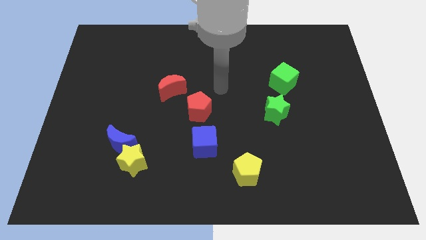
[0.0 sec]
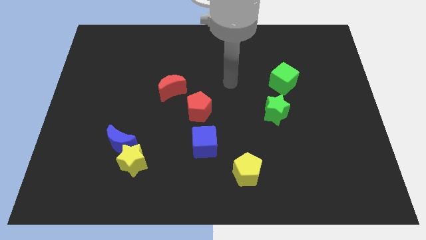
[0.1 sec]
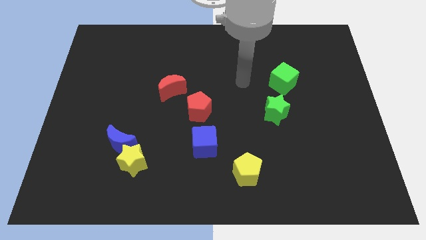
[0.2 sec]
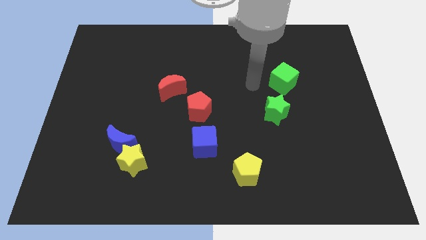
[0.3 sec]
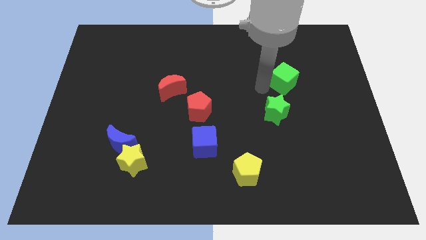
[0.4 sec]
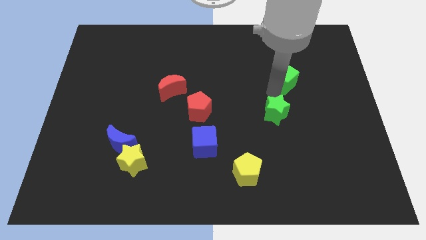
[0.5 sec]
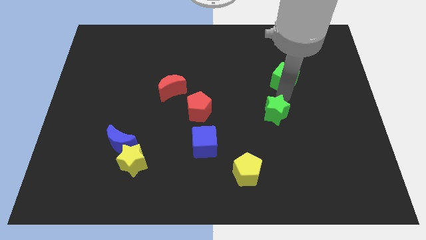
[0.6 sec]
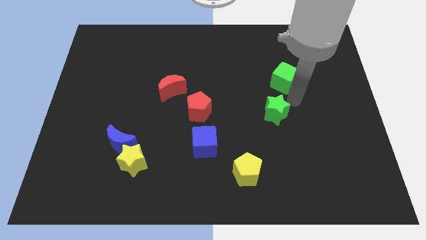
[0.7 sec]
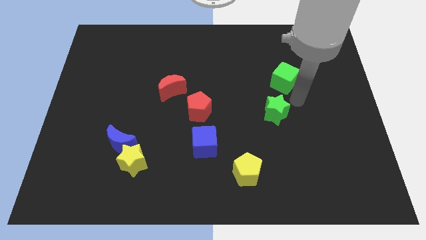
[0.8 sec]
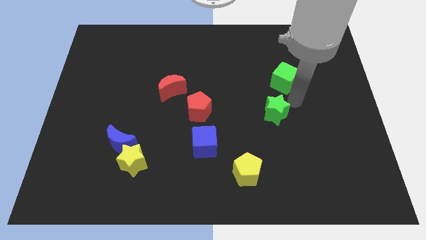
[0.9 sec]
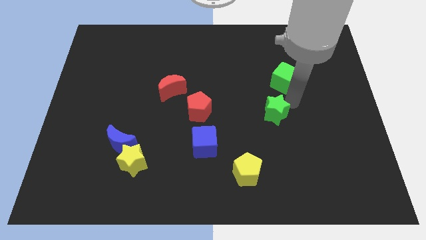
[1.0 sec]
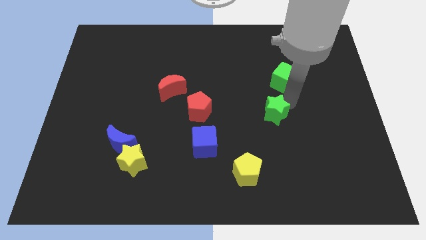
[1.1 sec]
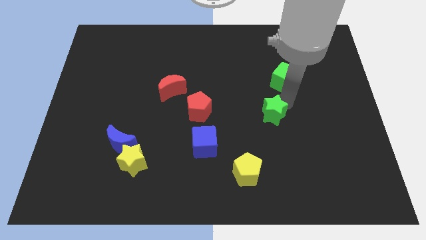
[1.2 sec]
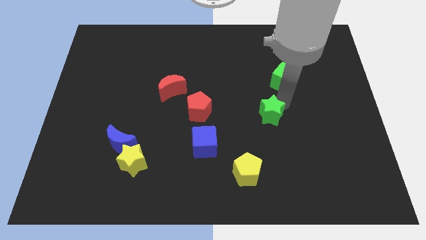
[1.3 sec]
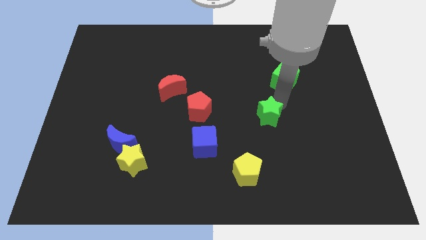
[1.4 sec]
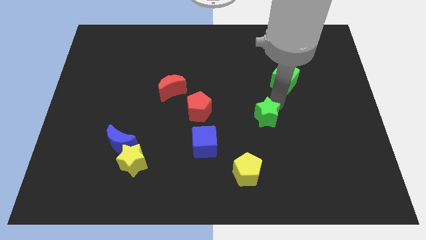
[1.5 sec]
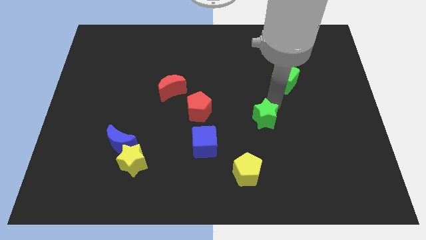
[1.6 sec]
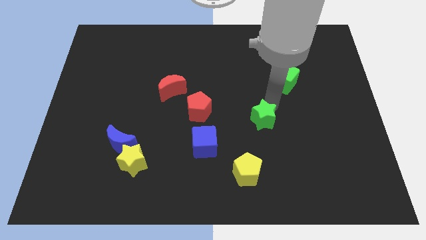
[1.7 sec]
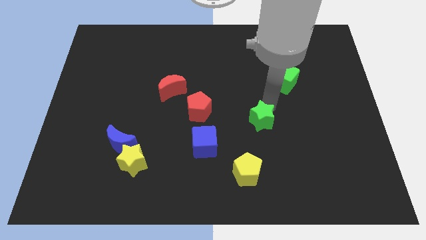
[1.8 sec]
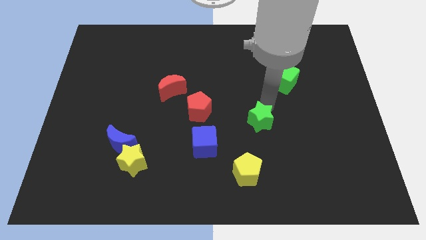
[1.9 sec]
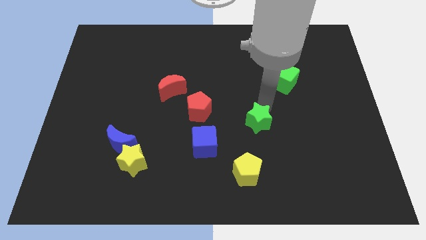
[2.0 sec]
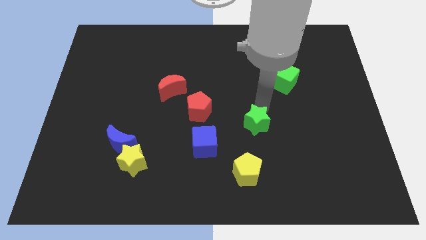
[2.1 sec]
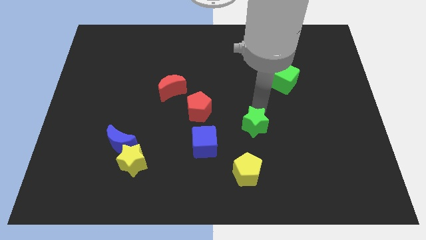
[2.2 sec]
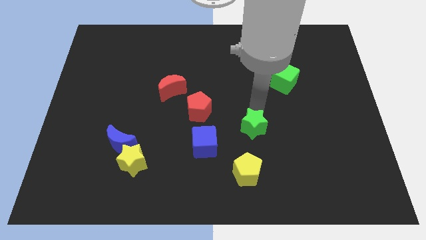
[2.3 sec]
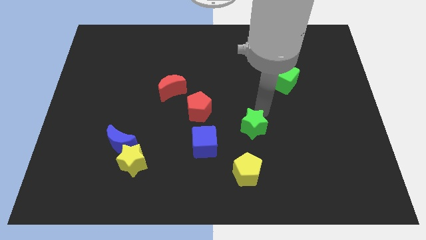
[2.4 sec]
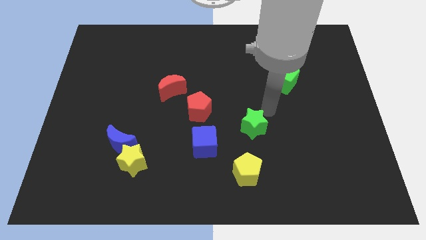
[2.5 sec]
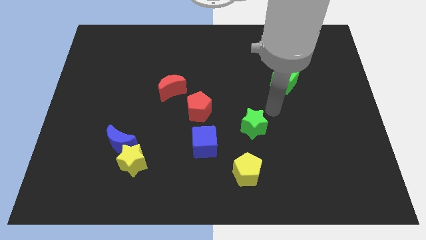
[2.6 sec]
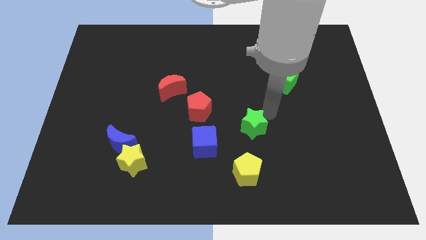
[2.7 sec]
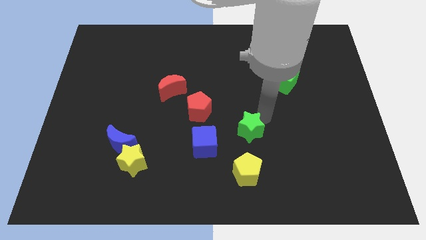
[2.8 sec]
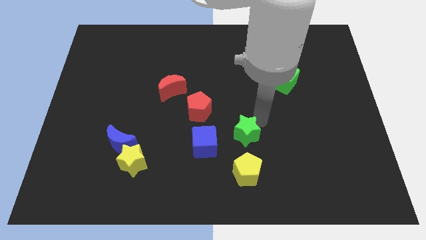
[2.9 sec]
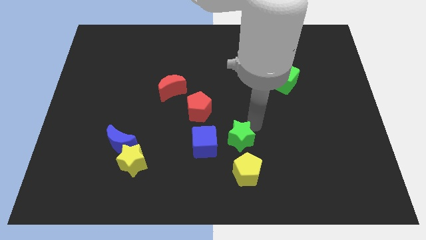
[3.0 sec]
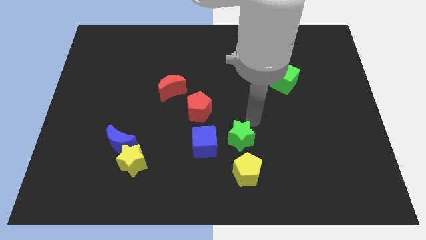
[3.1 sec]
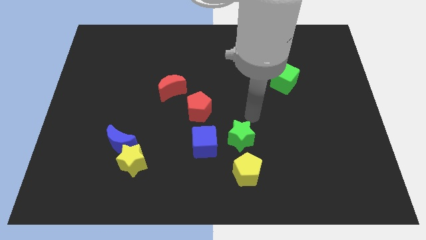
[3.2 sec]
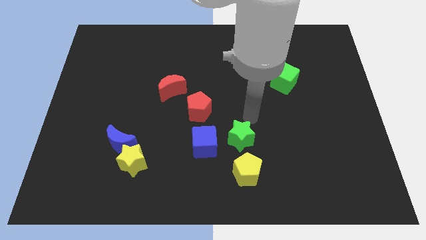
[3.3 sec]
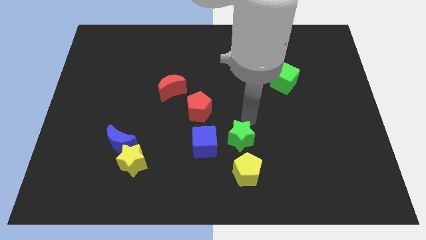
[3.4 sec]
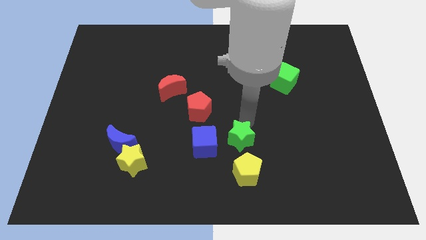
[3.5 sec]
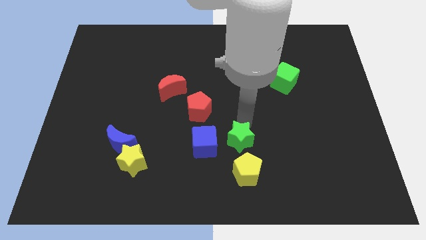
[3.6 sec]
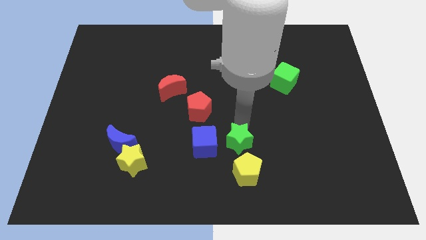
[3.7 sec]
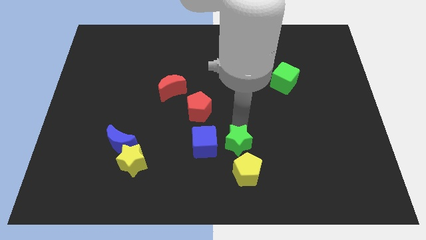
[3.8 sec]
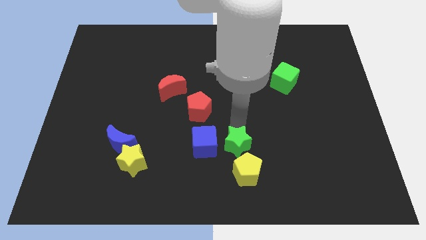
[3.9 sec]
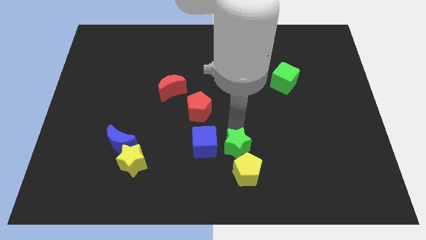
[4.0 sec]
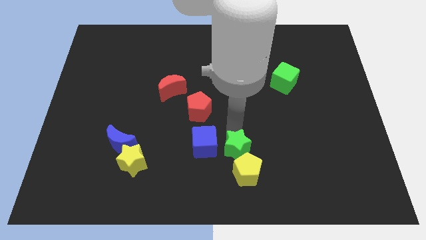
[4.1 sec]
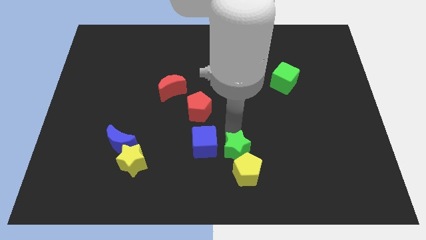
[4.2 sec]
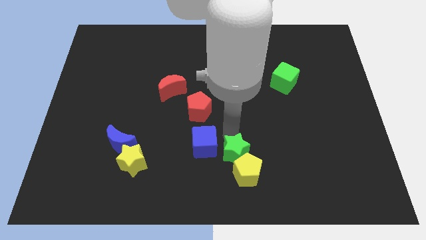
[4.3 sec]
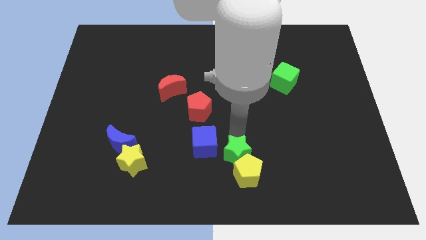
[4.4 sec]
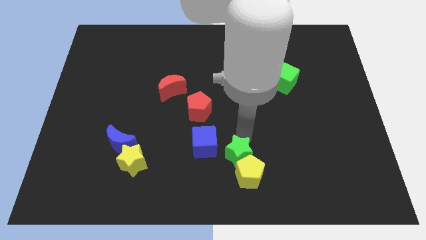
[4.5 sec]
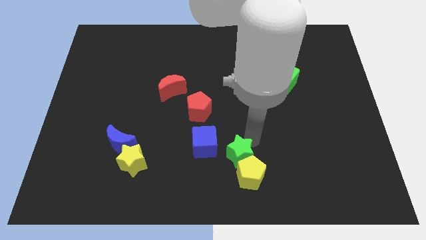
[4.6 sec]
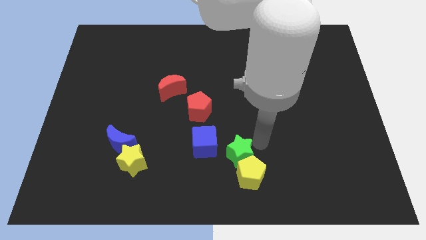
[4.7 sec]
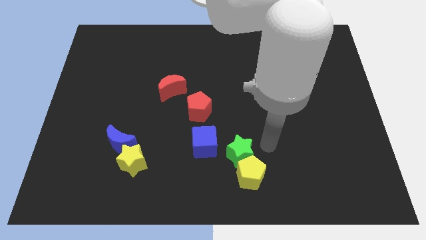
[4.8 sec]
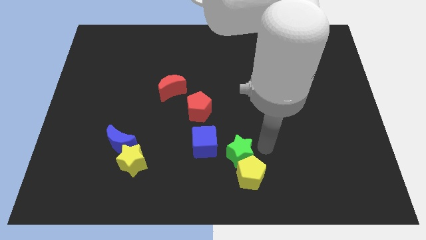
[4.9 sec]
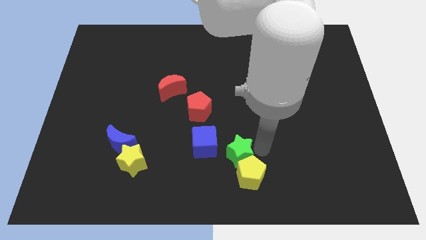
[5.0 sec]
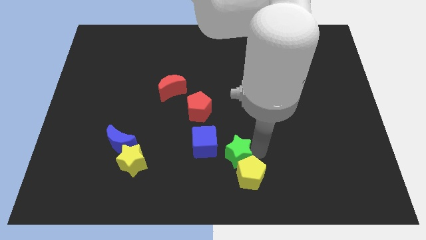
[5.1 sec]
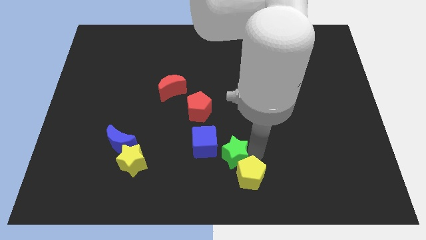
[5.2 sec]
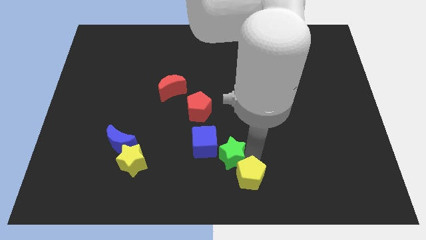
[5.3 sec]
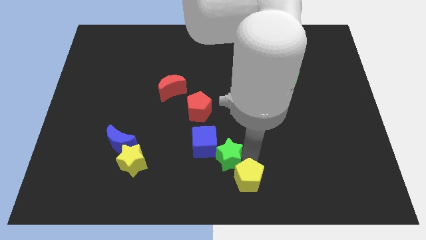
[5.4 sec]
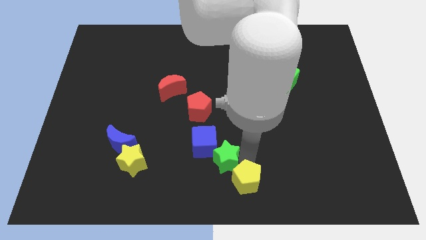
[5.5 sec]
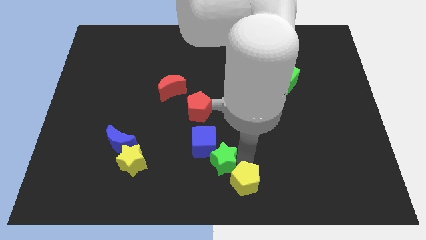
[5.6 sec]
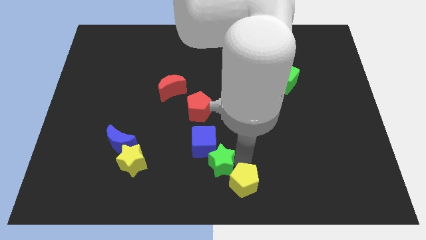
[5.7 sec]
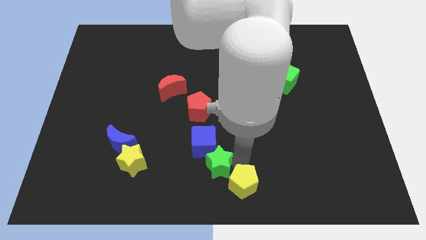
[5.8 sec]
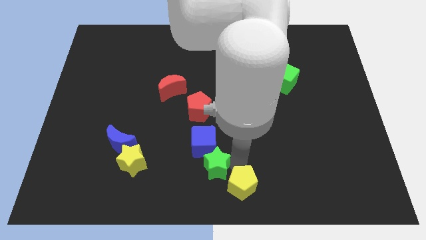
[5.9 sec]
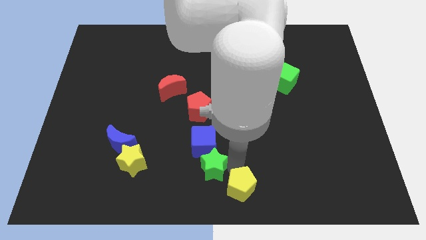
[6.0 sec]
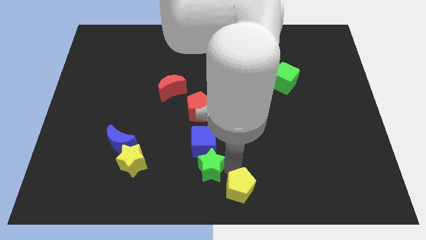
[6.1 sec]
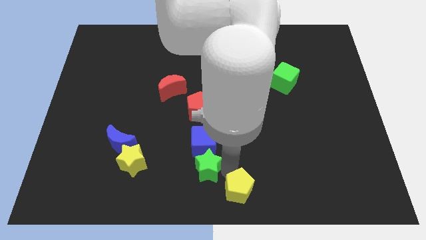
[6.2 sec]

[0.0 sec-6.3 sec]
push the green star to the right of the yellow star

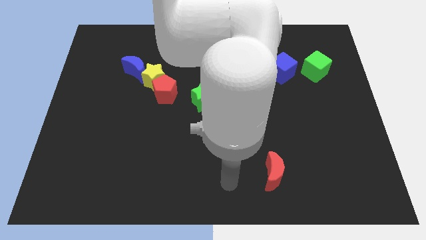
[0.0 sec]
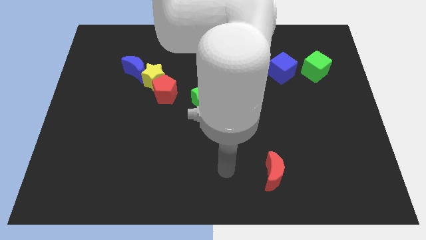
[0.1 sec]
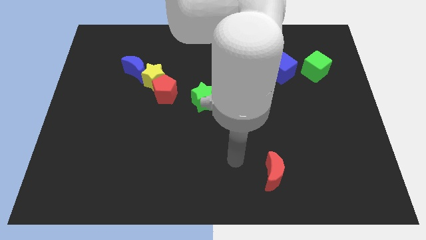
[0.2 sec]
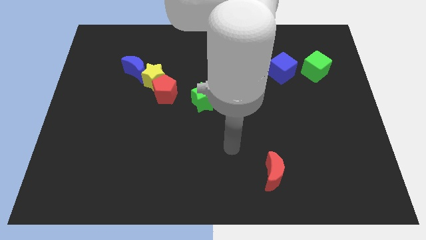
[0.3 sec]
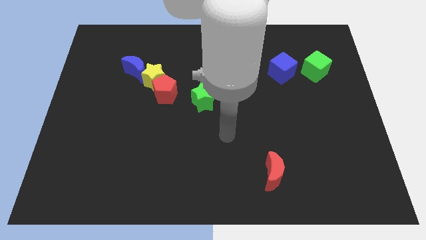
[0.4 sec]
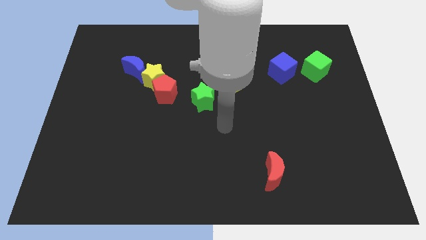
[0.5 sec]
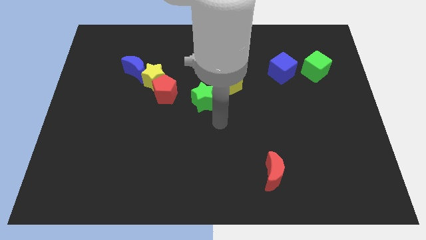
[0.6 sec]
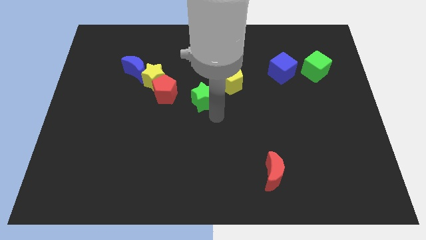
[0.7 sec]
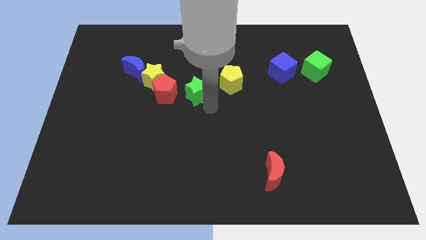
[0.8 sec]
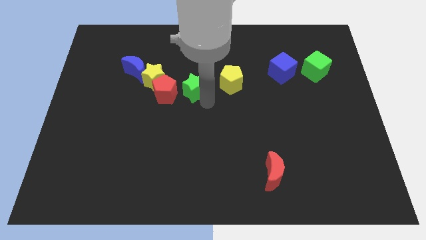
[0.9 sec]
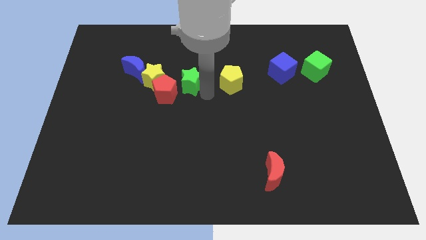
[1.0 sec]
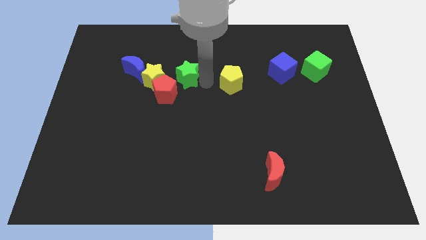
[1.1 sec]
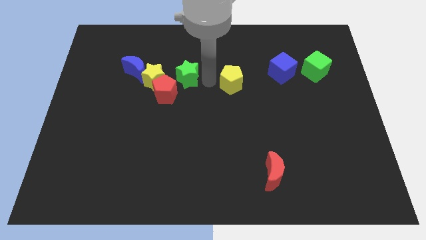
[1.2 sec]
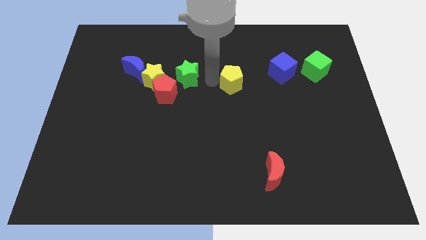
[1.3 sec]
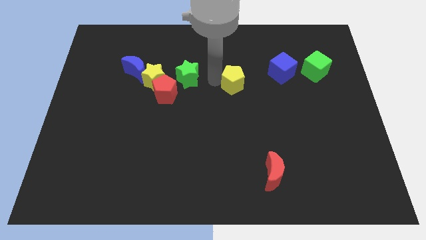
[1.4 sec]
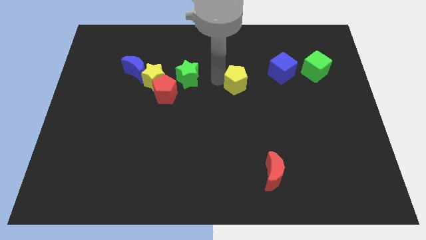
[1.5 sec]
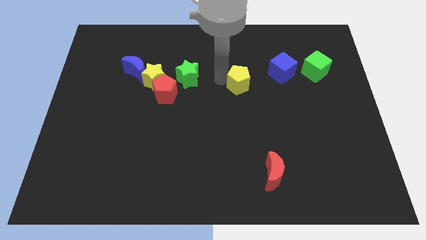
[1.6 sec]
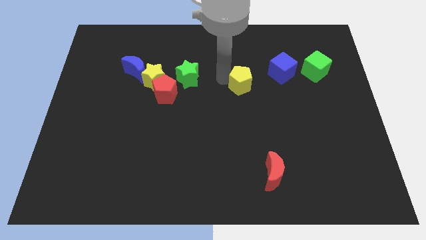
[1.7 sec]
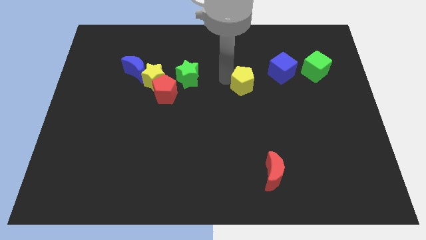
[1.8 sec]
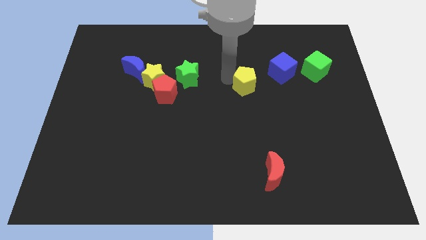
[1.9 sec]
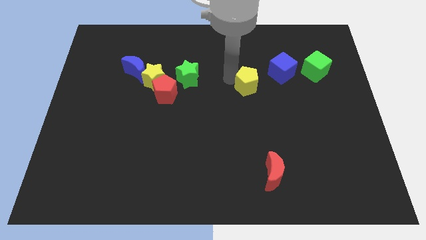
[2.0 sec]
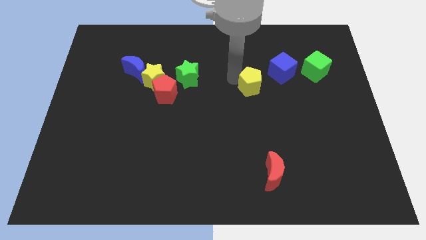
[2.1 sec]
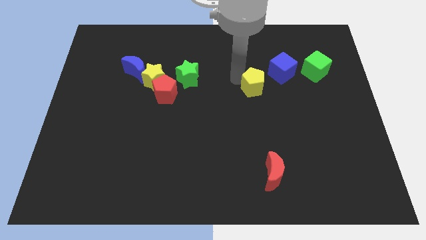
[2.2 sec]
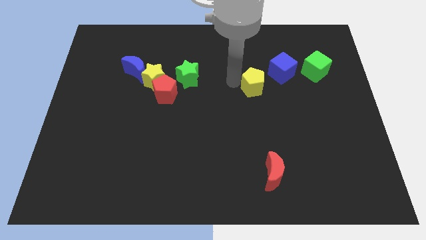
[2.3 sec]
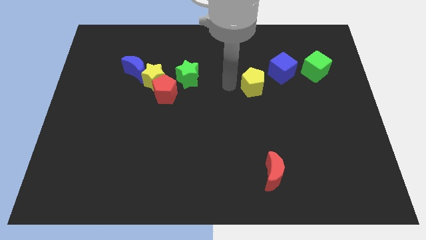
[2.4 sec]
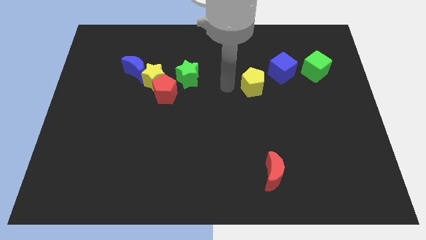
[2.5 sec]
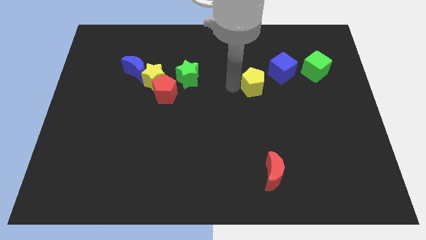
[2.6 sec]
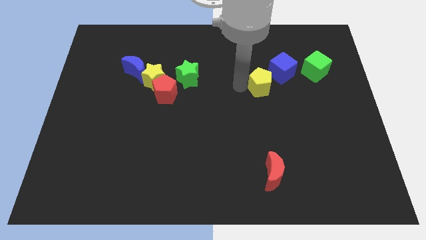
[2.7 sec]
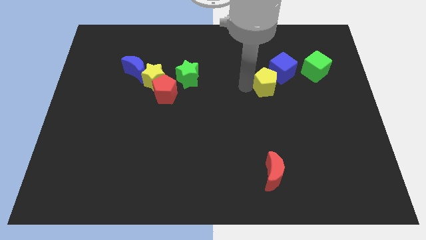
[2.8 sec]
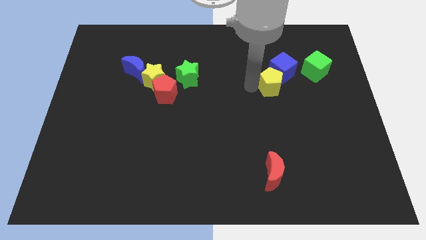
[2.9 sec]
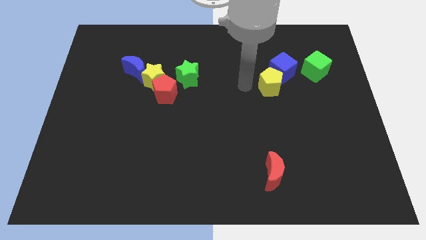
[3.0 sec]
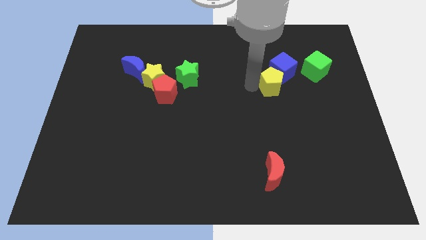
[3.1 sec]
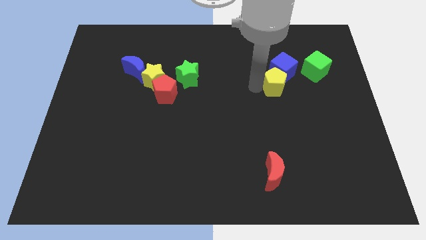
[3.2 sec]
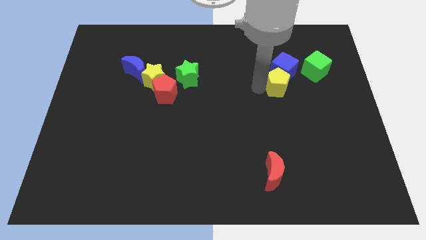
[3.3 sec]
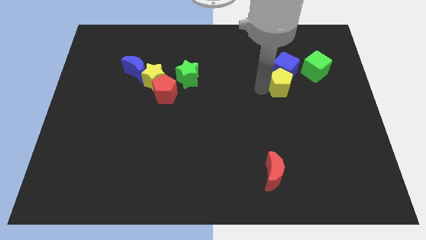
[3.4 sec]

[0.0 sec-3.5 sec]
move the yellow pentagon to the bottom right of the blue cube
